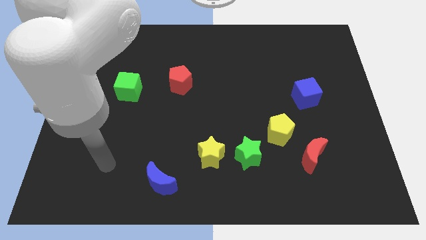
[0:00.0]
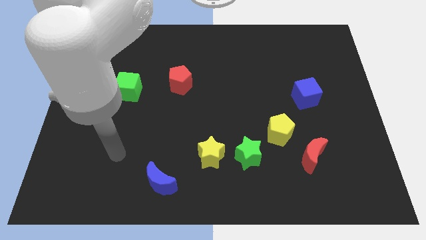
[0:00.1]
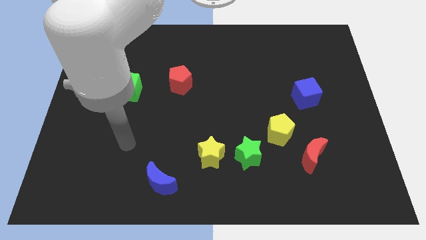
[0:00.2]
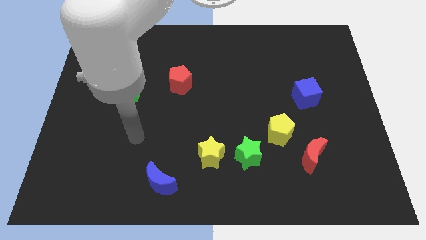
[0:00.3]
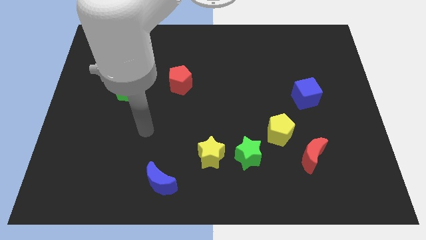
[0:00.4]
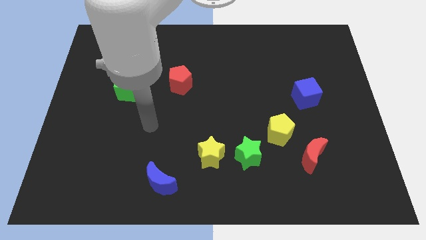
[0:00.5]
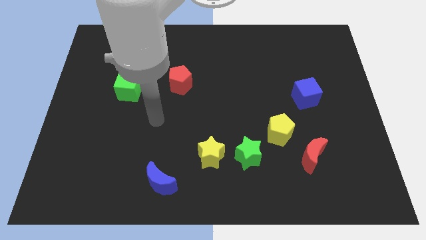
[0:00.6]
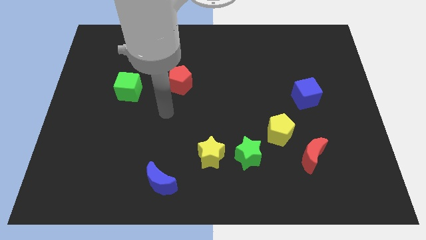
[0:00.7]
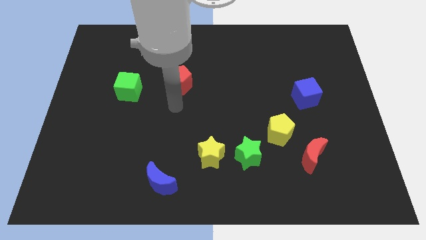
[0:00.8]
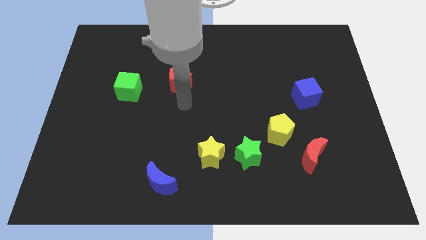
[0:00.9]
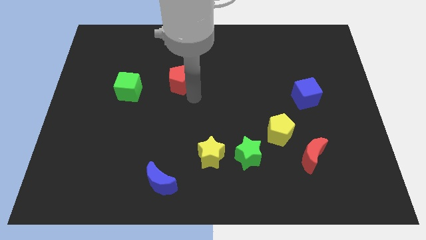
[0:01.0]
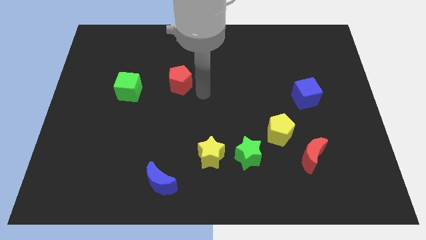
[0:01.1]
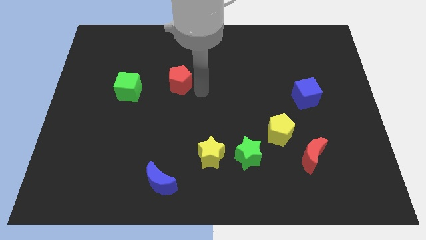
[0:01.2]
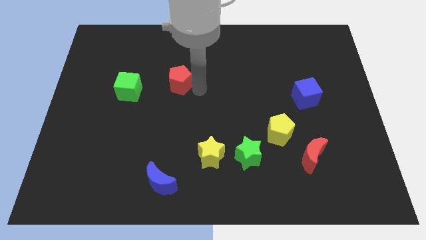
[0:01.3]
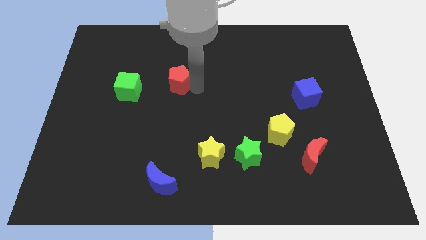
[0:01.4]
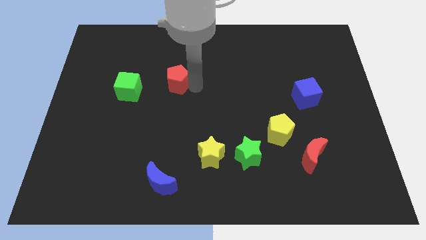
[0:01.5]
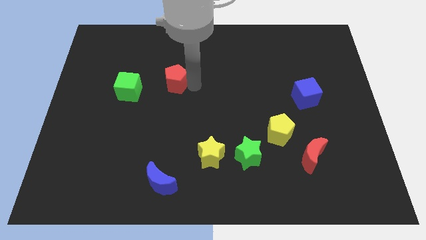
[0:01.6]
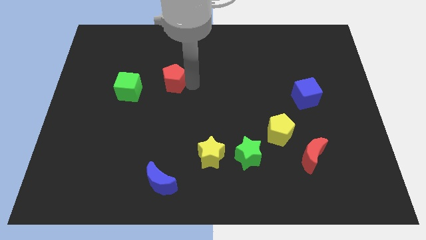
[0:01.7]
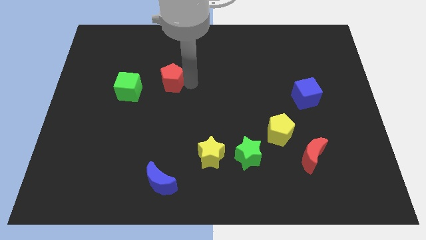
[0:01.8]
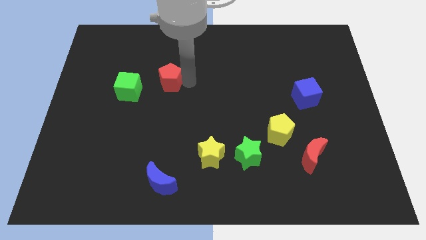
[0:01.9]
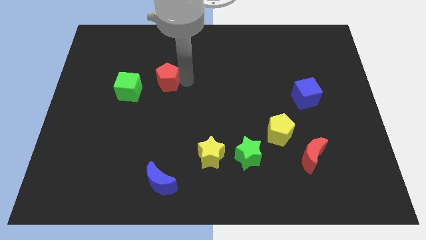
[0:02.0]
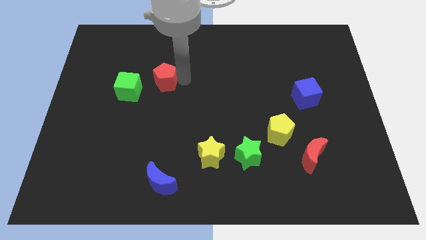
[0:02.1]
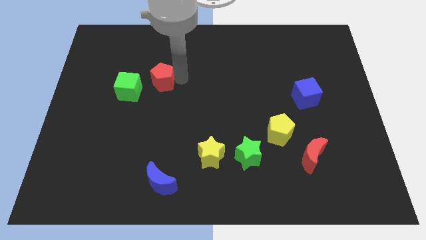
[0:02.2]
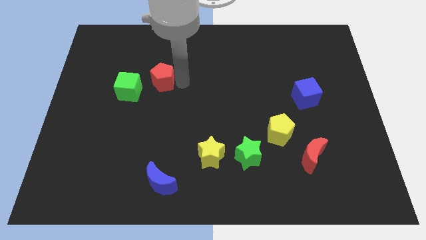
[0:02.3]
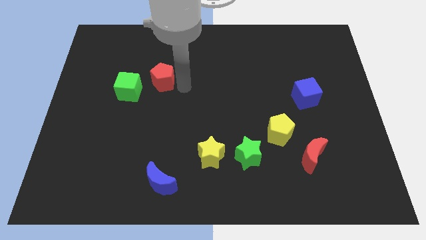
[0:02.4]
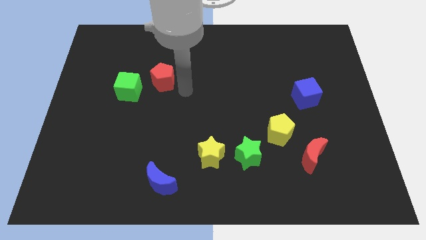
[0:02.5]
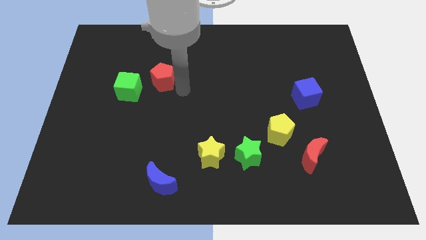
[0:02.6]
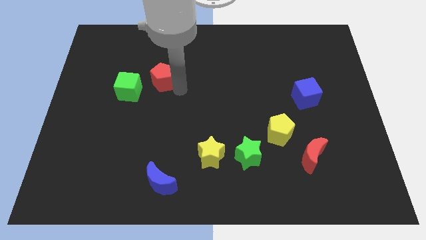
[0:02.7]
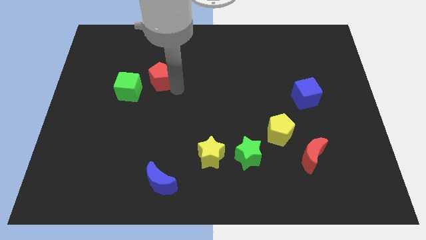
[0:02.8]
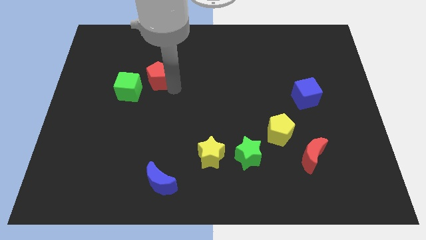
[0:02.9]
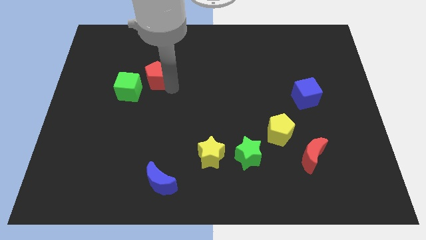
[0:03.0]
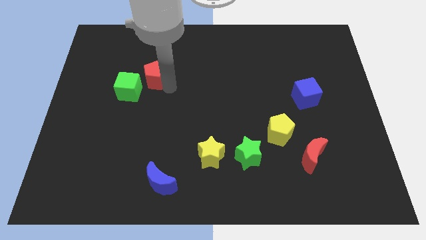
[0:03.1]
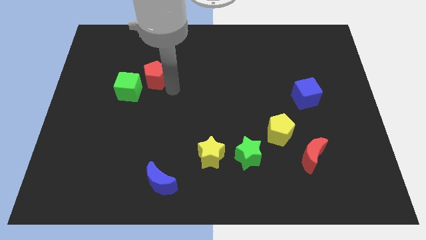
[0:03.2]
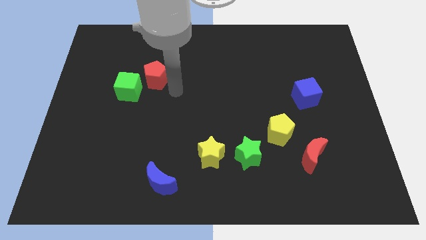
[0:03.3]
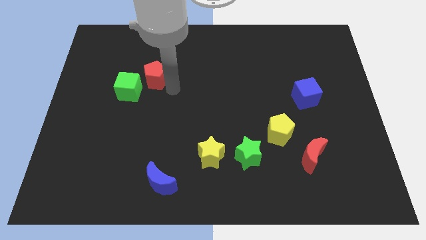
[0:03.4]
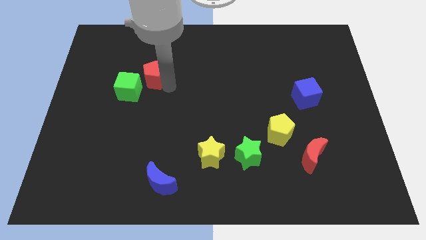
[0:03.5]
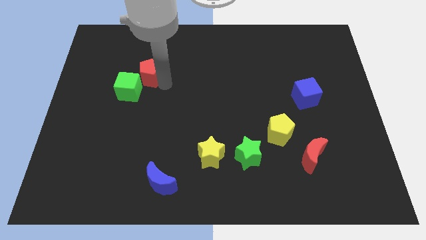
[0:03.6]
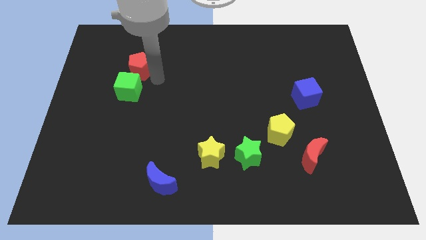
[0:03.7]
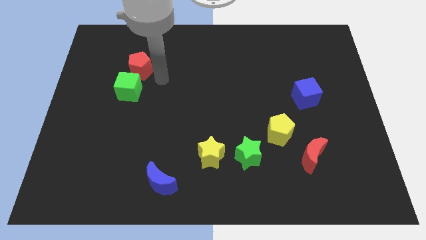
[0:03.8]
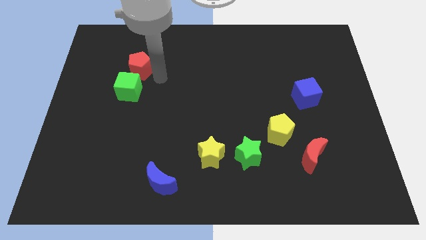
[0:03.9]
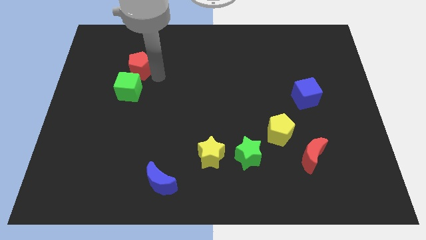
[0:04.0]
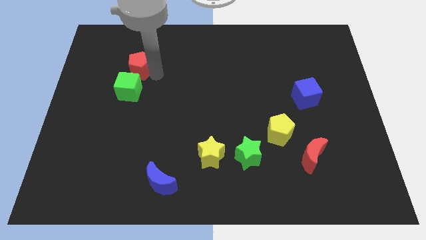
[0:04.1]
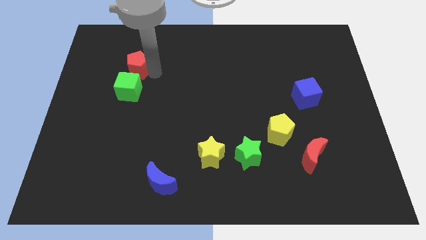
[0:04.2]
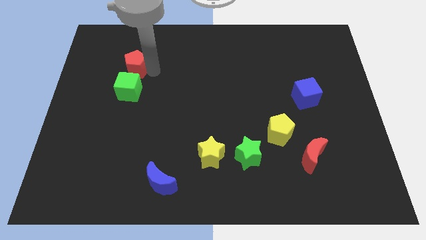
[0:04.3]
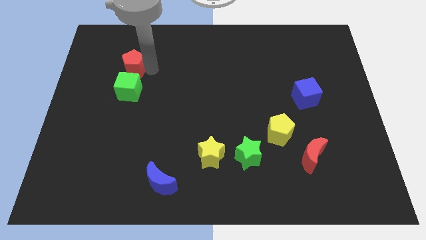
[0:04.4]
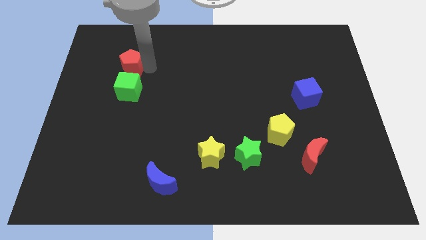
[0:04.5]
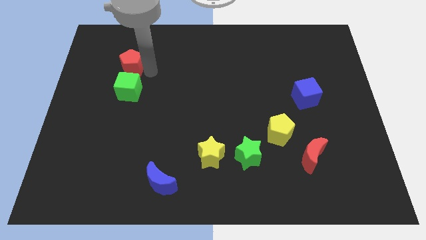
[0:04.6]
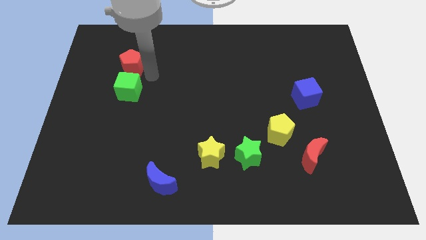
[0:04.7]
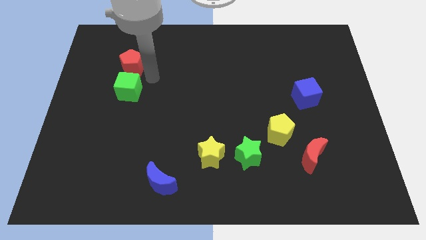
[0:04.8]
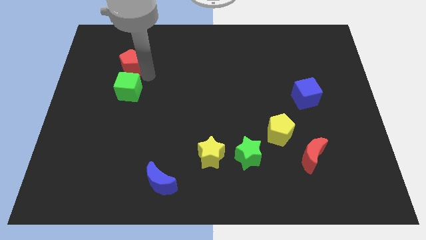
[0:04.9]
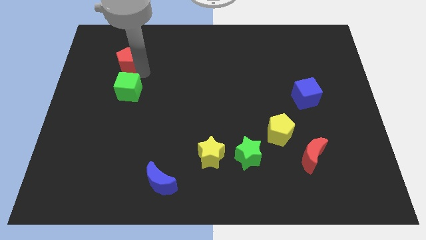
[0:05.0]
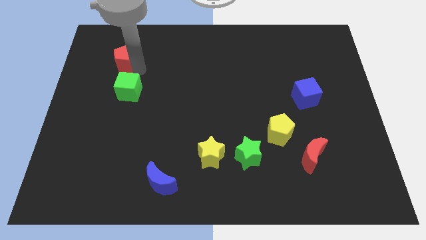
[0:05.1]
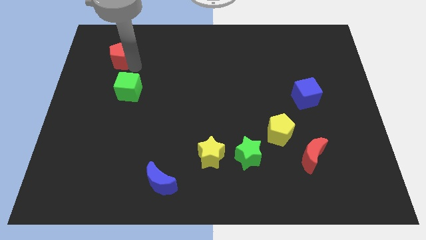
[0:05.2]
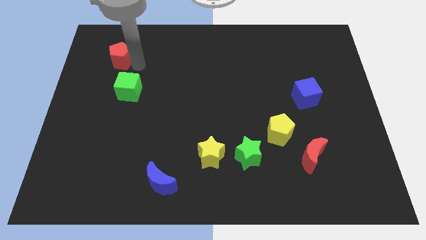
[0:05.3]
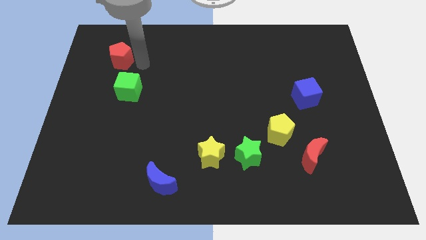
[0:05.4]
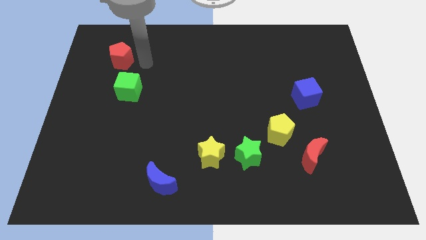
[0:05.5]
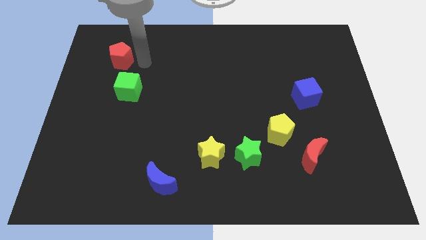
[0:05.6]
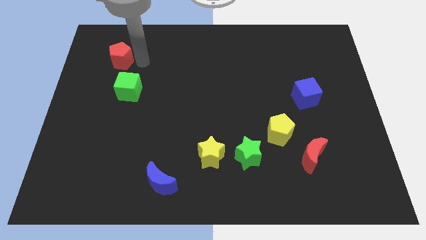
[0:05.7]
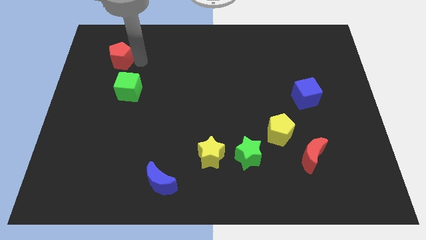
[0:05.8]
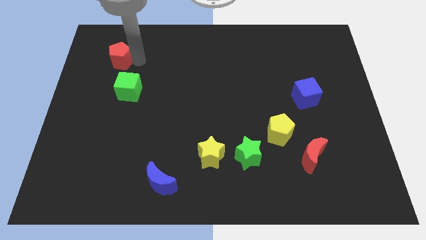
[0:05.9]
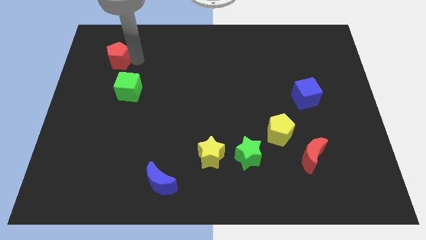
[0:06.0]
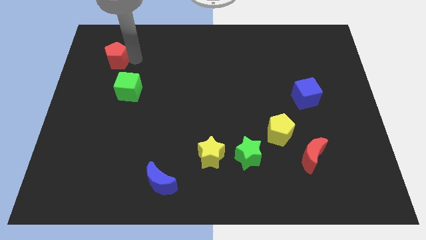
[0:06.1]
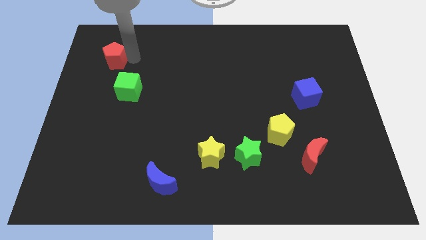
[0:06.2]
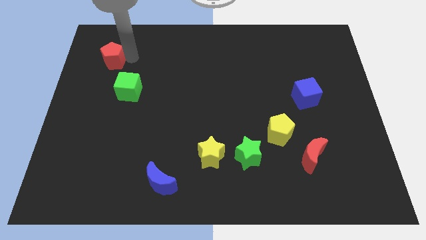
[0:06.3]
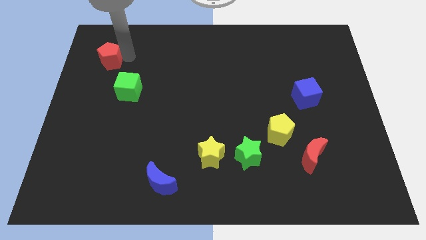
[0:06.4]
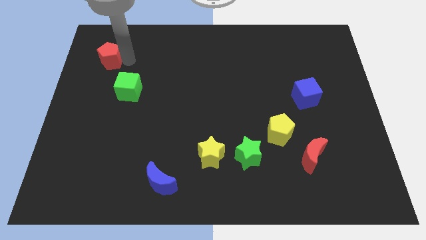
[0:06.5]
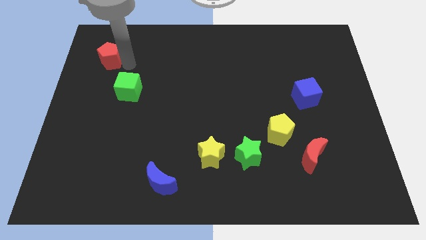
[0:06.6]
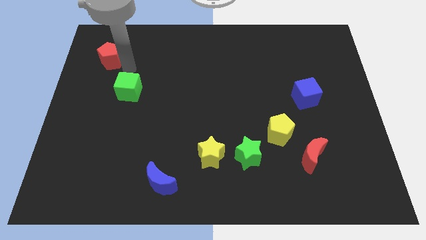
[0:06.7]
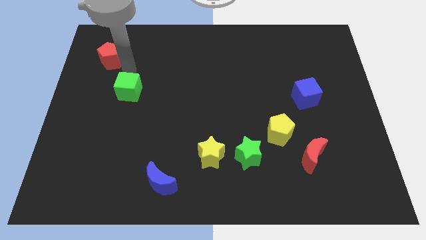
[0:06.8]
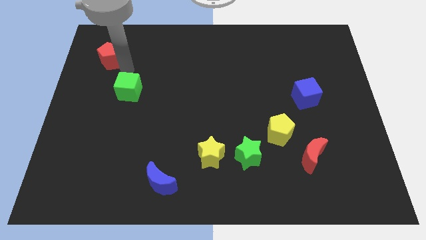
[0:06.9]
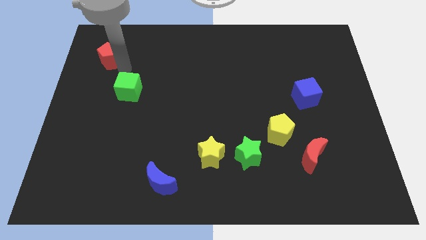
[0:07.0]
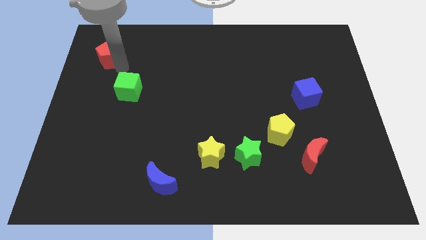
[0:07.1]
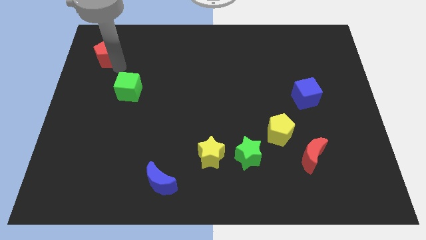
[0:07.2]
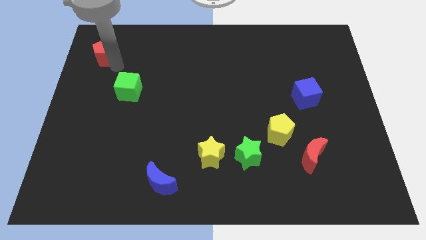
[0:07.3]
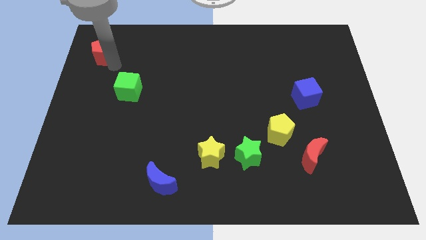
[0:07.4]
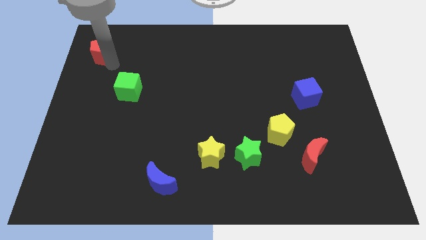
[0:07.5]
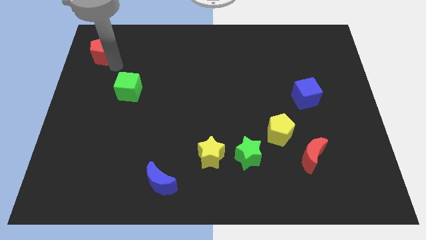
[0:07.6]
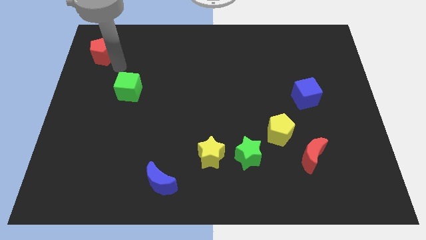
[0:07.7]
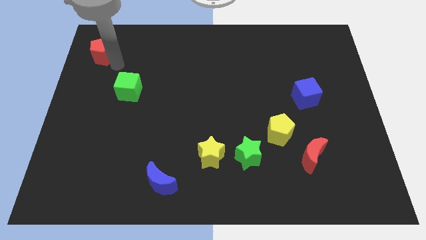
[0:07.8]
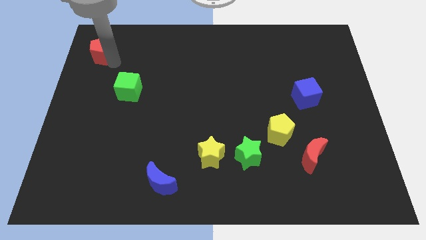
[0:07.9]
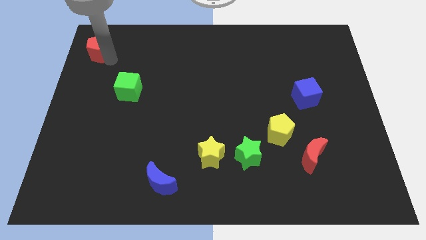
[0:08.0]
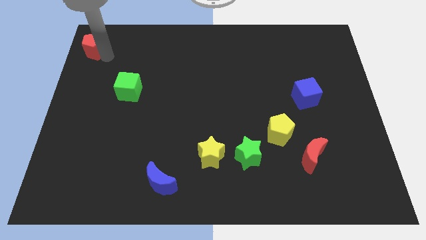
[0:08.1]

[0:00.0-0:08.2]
move the red pentagon to the top left corner

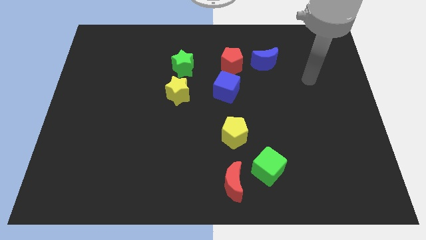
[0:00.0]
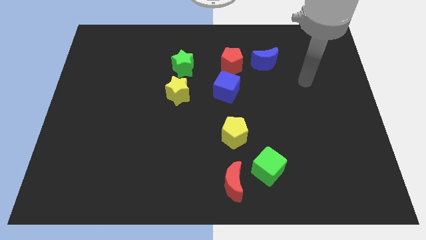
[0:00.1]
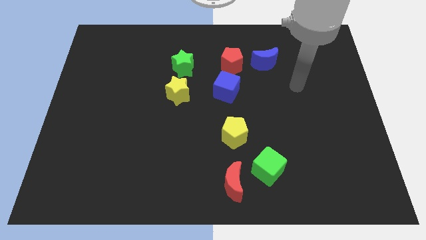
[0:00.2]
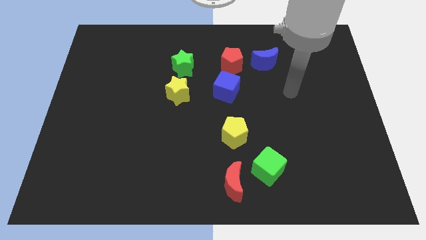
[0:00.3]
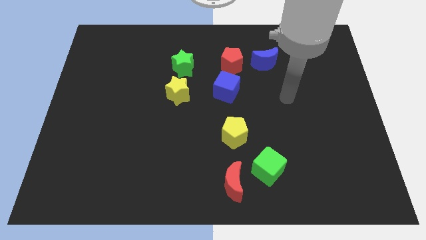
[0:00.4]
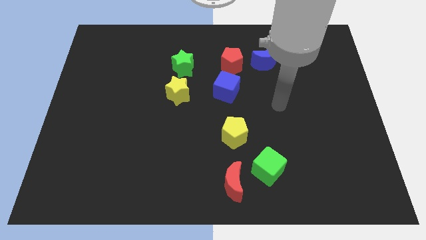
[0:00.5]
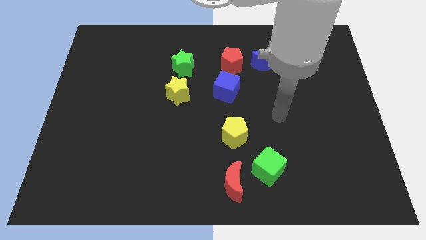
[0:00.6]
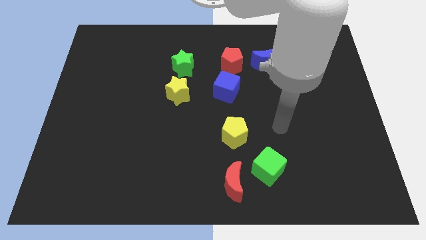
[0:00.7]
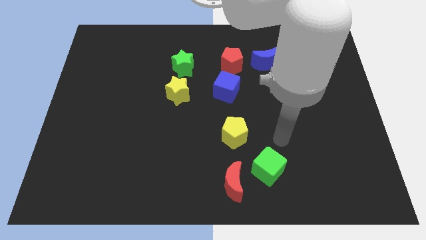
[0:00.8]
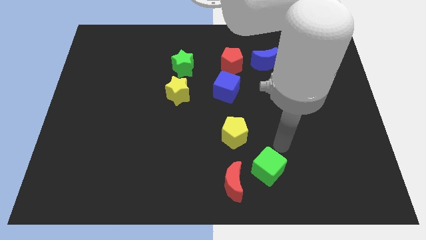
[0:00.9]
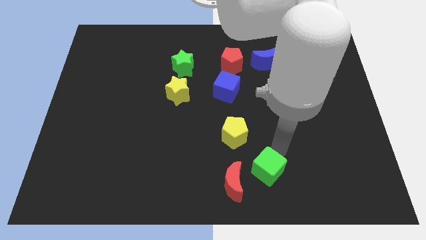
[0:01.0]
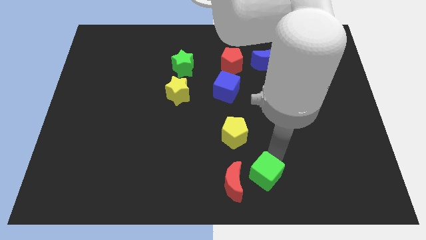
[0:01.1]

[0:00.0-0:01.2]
push the green cube to the bottom side
